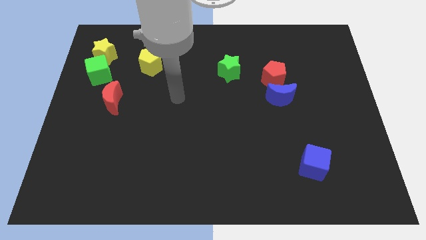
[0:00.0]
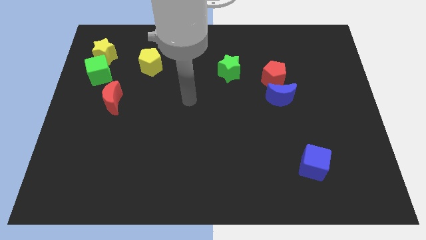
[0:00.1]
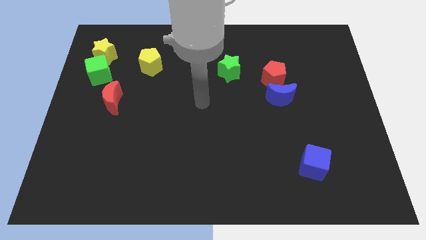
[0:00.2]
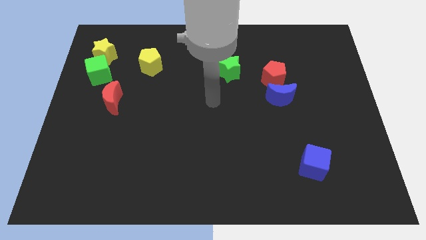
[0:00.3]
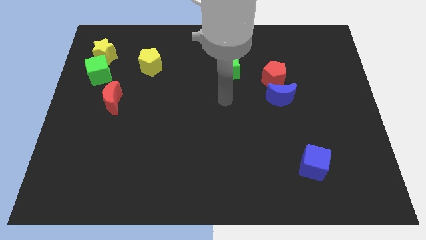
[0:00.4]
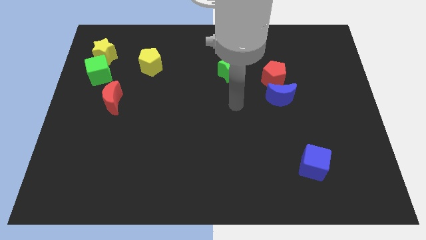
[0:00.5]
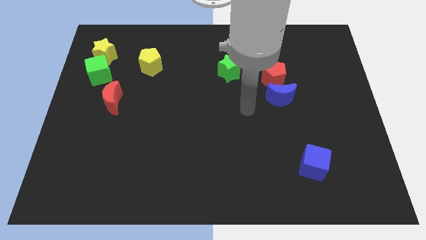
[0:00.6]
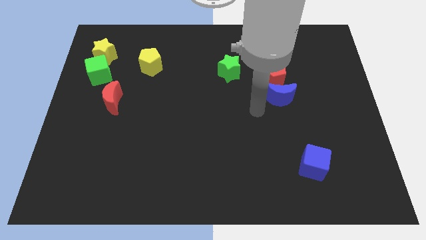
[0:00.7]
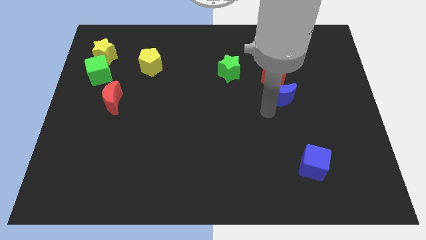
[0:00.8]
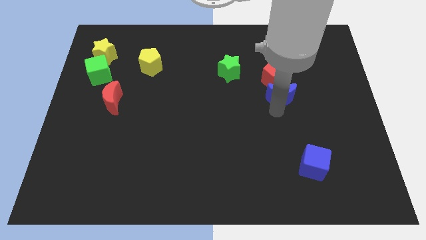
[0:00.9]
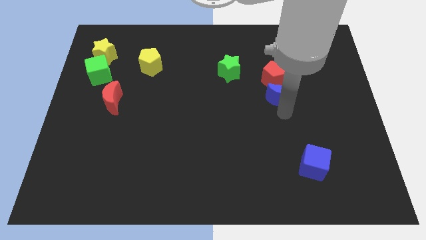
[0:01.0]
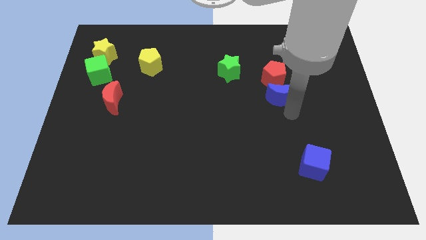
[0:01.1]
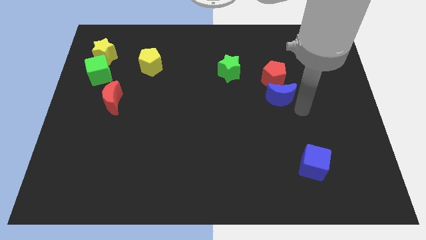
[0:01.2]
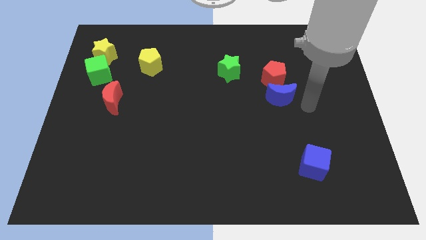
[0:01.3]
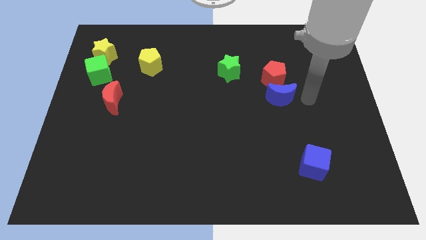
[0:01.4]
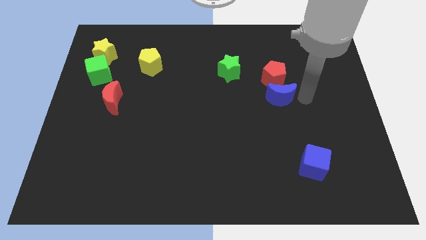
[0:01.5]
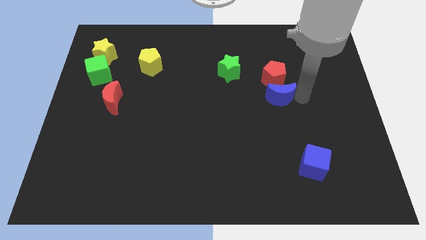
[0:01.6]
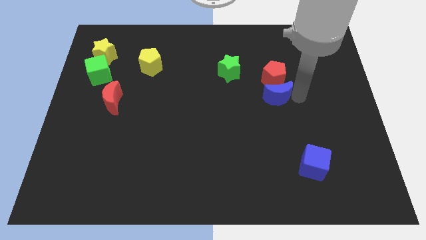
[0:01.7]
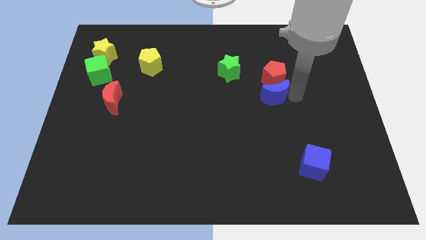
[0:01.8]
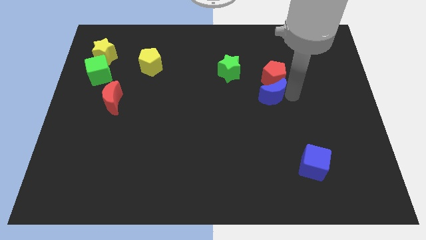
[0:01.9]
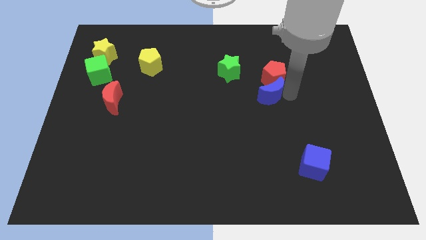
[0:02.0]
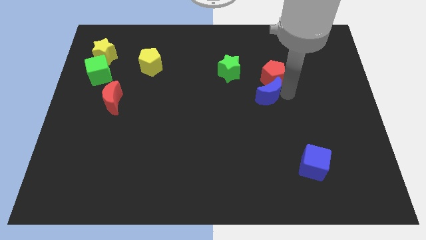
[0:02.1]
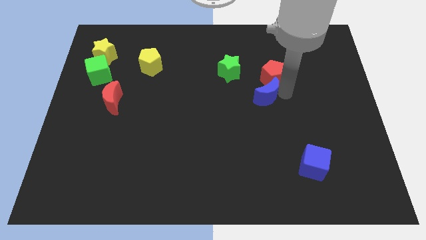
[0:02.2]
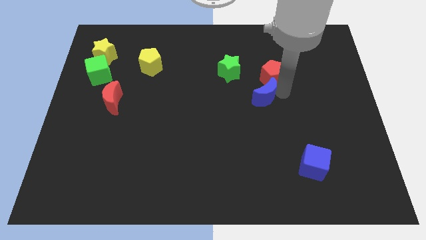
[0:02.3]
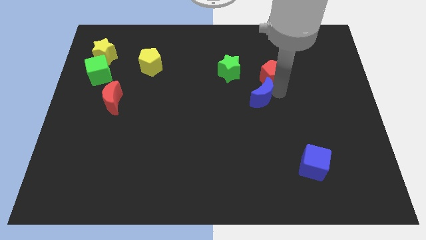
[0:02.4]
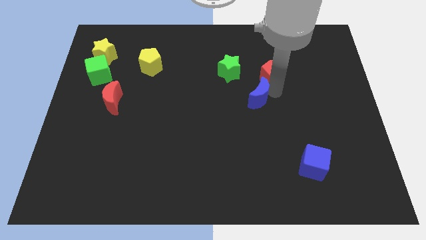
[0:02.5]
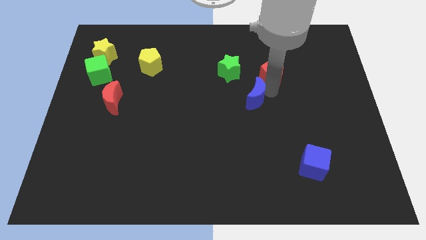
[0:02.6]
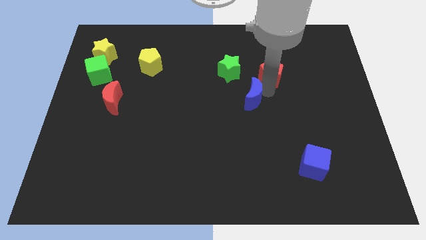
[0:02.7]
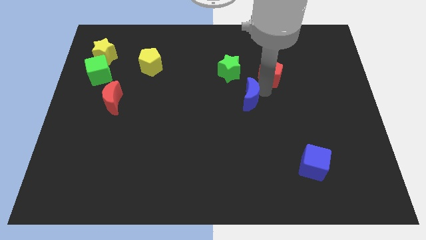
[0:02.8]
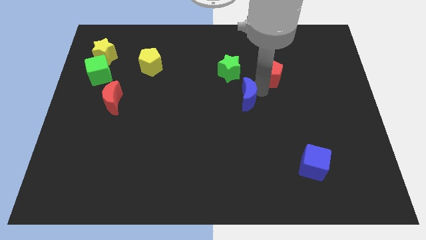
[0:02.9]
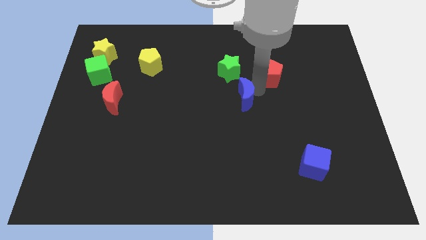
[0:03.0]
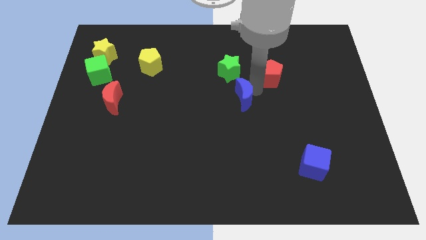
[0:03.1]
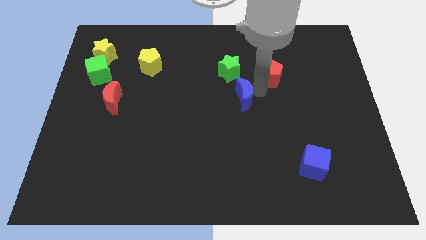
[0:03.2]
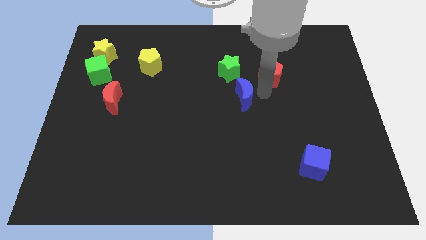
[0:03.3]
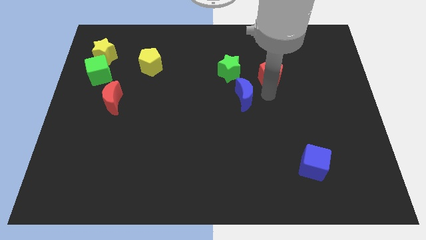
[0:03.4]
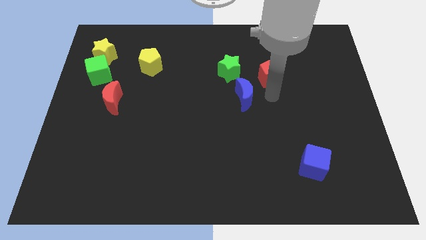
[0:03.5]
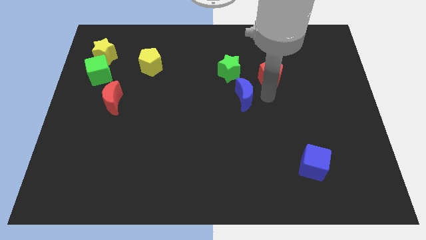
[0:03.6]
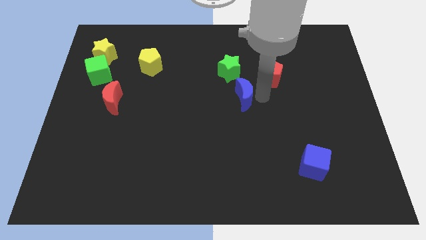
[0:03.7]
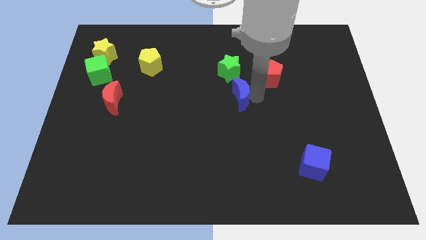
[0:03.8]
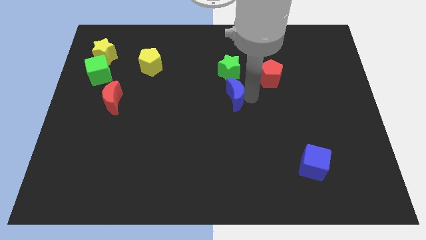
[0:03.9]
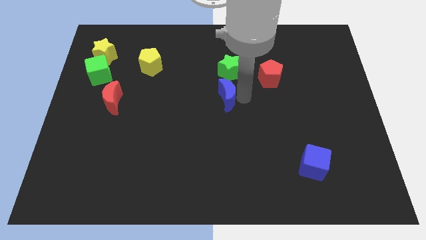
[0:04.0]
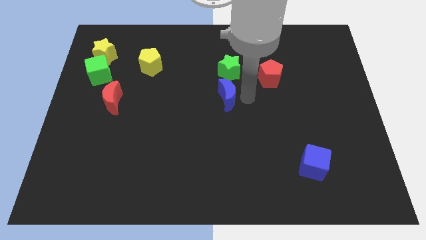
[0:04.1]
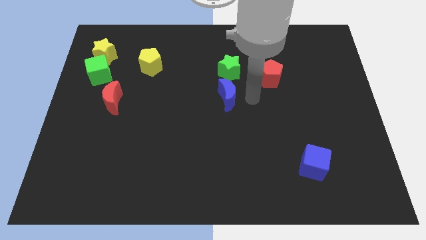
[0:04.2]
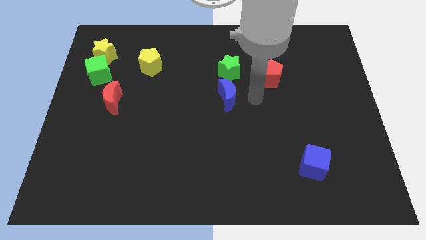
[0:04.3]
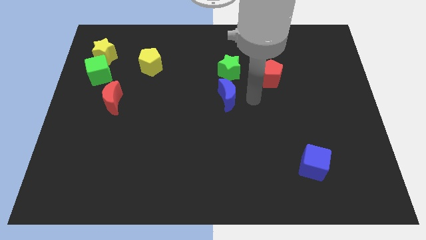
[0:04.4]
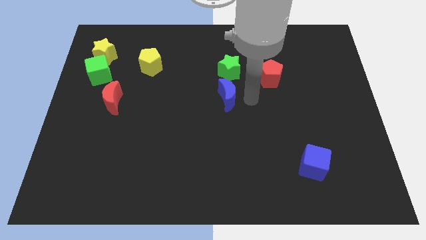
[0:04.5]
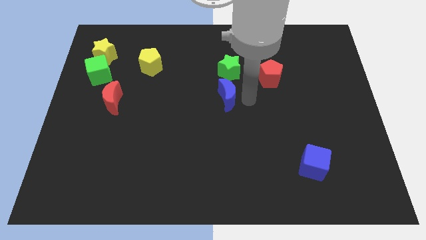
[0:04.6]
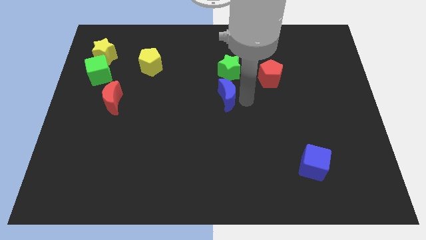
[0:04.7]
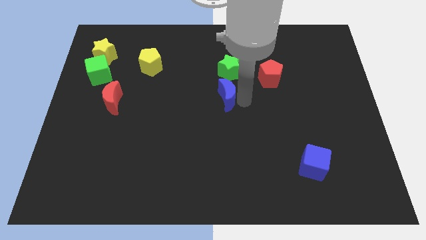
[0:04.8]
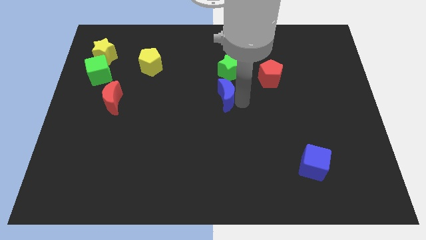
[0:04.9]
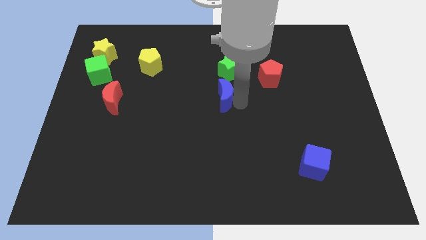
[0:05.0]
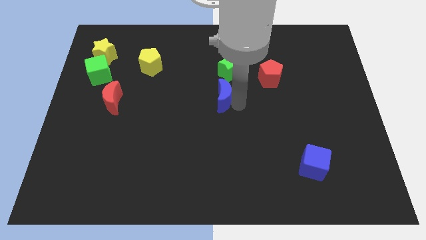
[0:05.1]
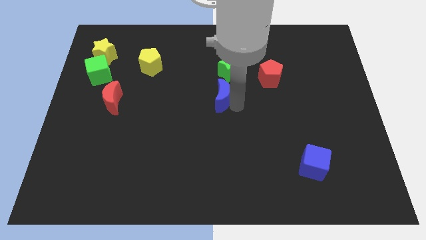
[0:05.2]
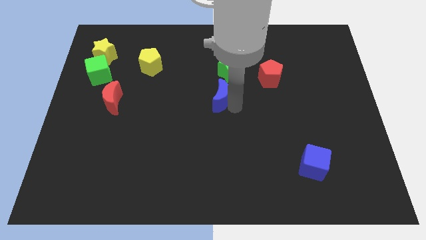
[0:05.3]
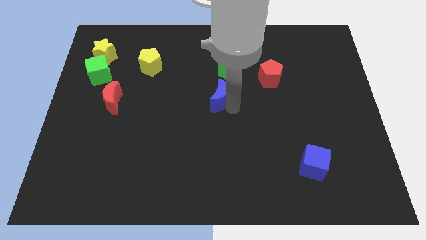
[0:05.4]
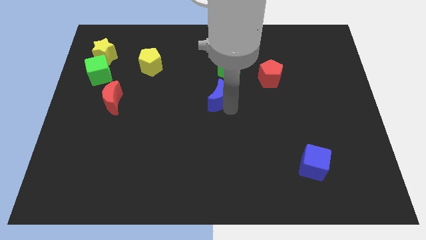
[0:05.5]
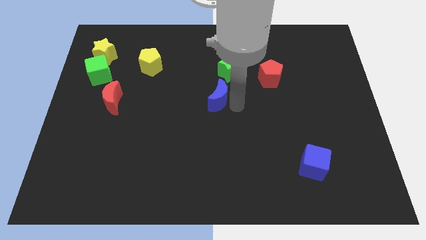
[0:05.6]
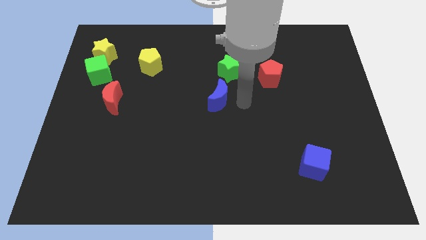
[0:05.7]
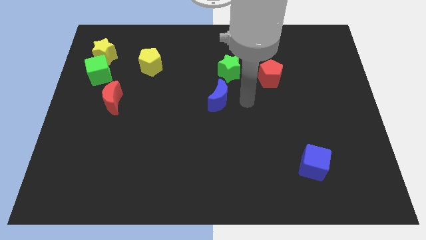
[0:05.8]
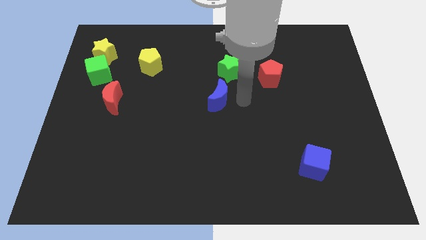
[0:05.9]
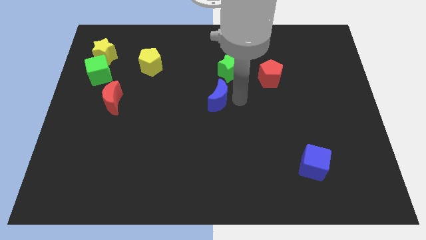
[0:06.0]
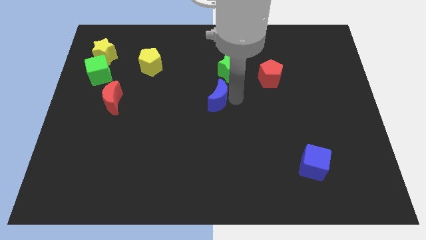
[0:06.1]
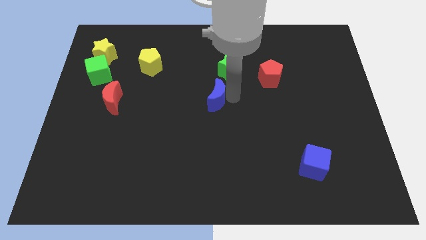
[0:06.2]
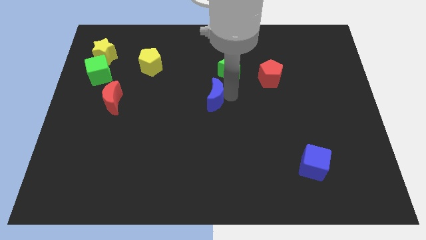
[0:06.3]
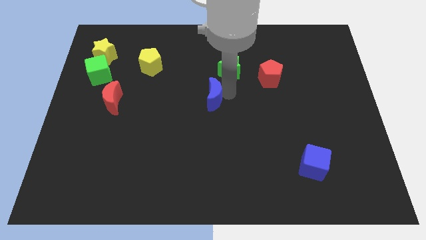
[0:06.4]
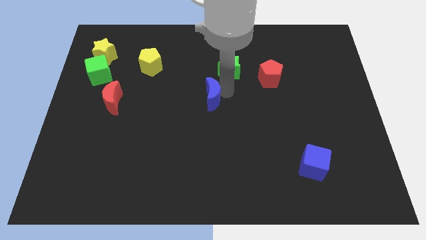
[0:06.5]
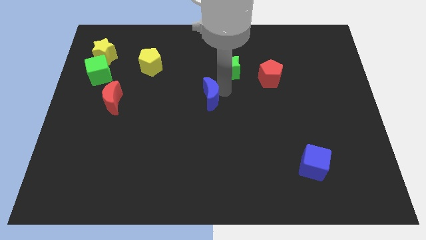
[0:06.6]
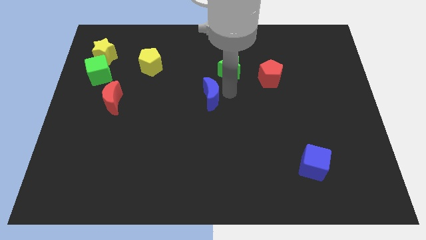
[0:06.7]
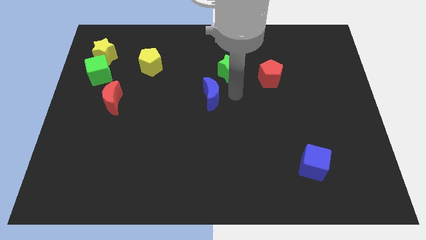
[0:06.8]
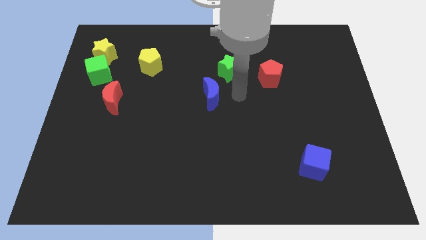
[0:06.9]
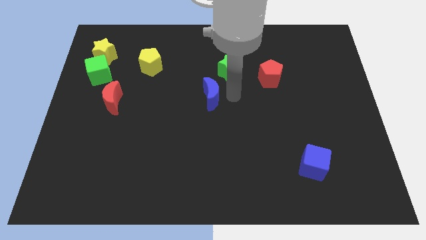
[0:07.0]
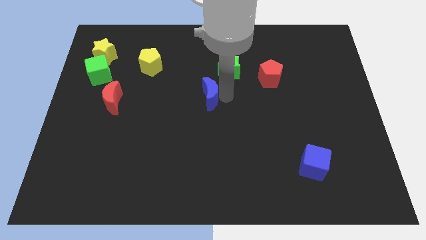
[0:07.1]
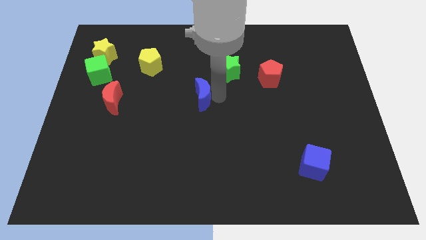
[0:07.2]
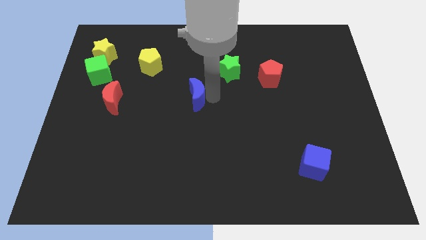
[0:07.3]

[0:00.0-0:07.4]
push the blue moon left

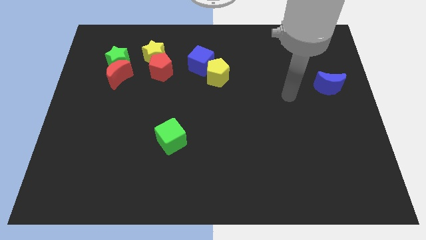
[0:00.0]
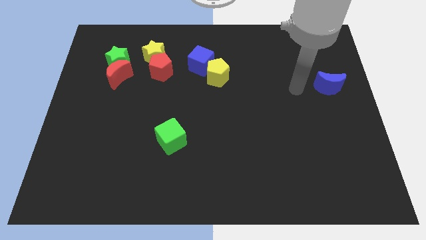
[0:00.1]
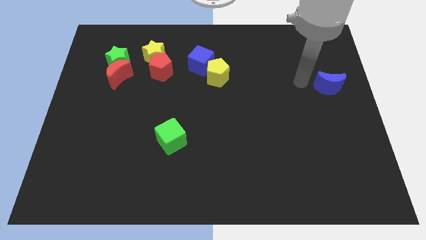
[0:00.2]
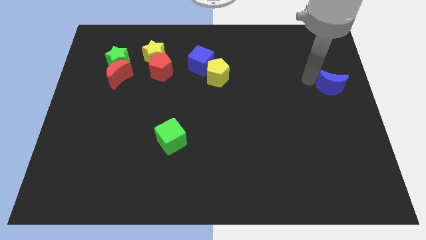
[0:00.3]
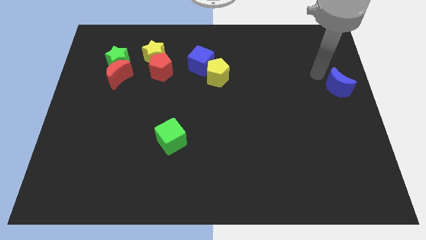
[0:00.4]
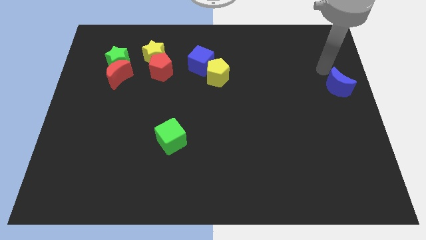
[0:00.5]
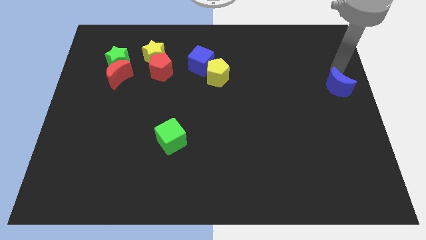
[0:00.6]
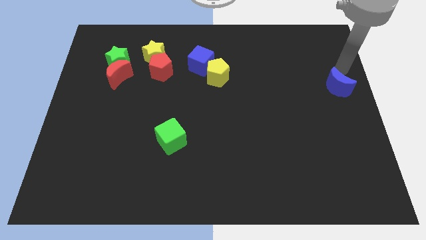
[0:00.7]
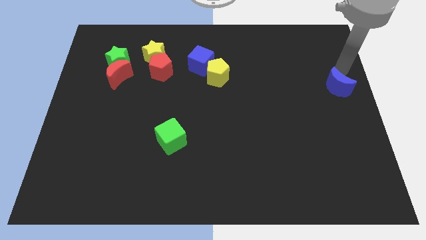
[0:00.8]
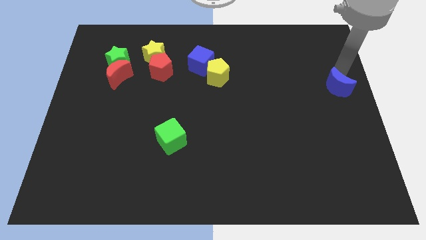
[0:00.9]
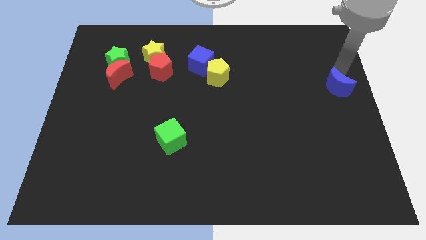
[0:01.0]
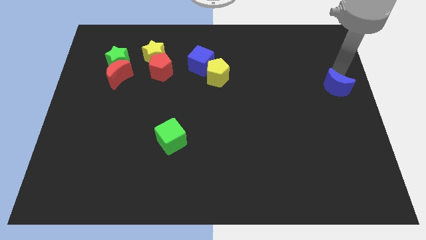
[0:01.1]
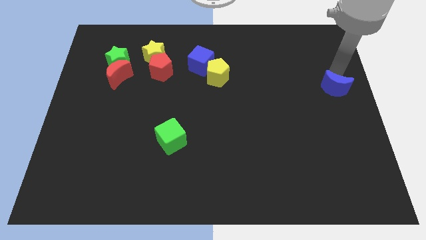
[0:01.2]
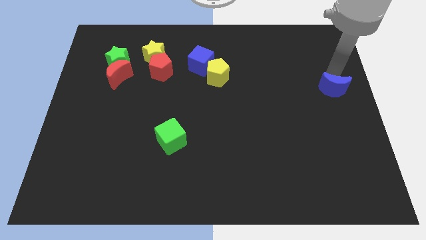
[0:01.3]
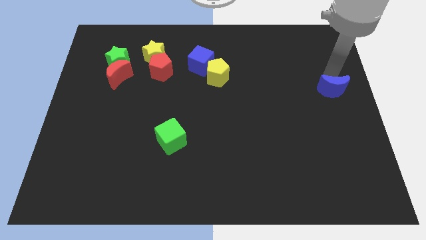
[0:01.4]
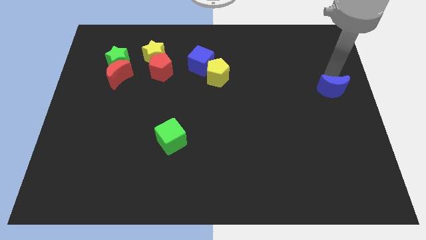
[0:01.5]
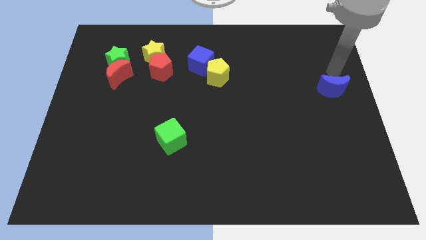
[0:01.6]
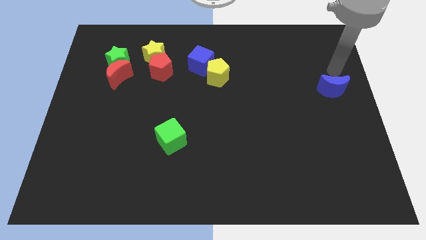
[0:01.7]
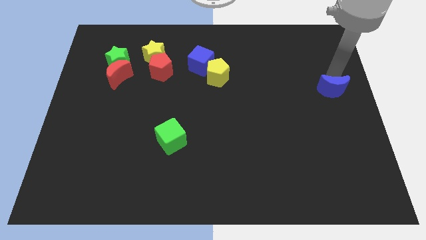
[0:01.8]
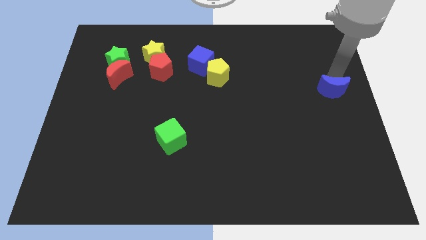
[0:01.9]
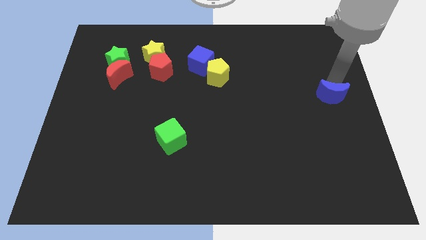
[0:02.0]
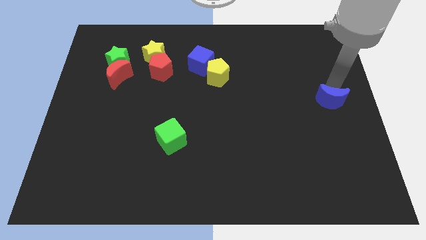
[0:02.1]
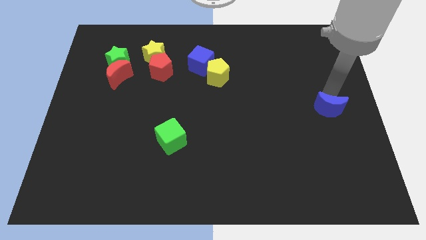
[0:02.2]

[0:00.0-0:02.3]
push the blue moon down a little bit
